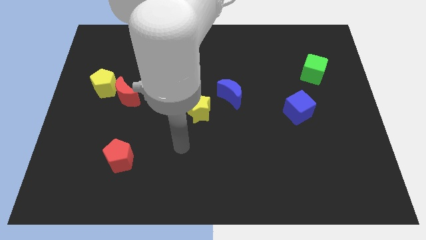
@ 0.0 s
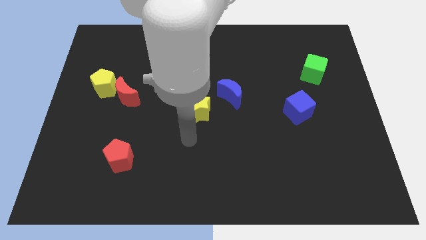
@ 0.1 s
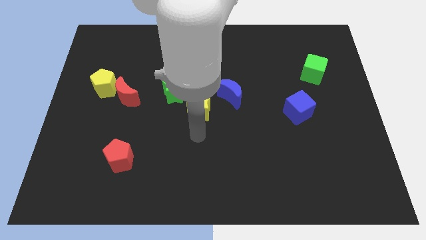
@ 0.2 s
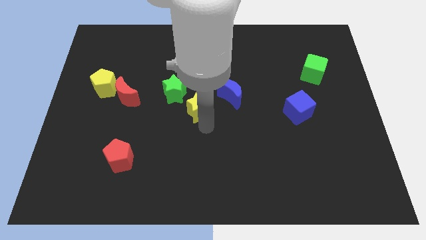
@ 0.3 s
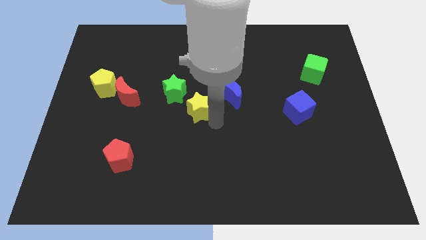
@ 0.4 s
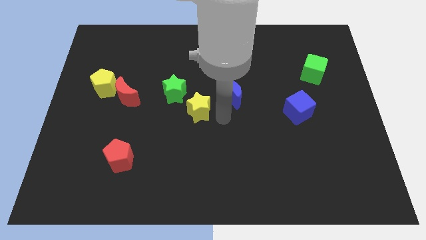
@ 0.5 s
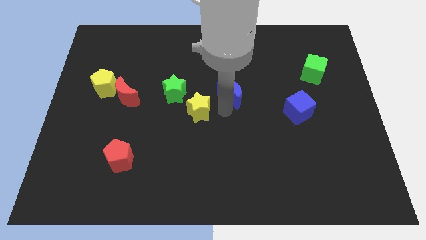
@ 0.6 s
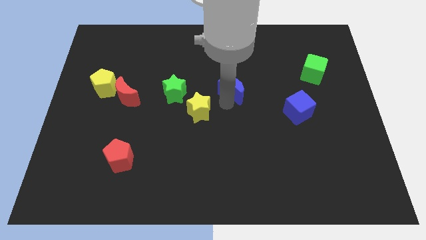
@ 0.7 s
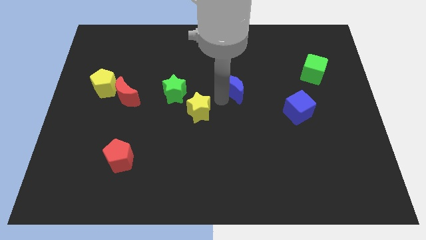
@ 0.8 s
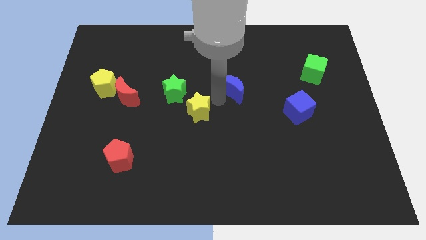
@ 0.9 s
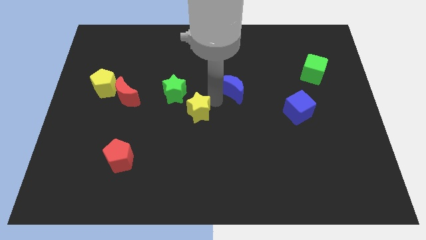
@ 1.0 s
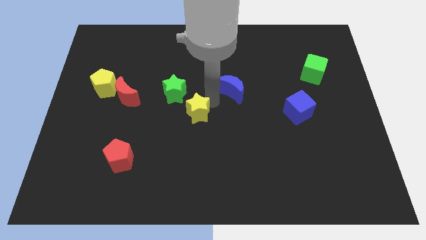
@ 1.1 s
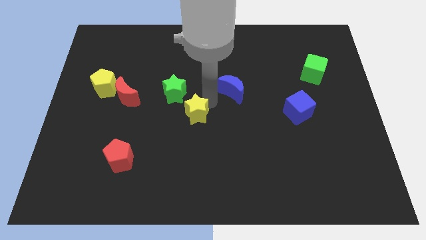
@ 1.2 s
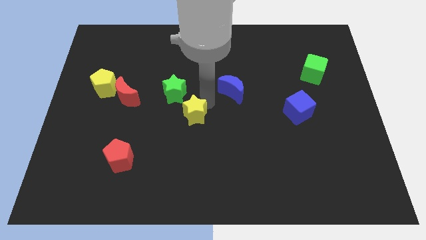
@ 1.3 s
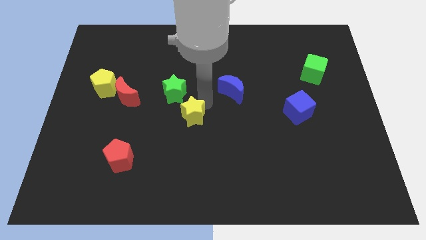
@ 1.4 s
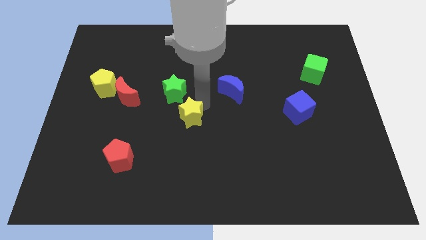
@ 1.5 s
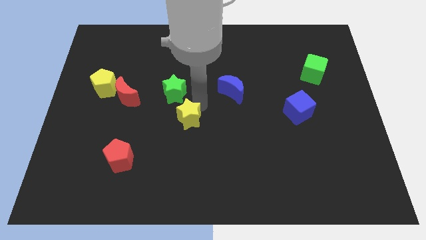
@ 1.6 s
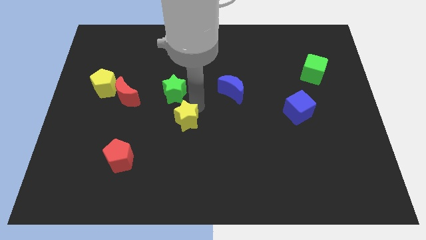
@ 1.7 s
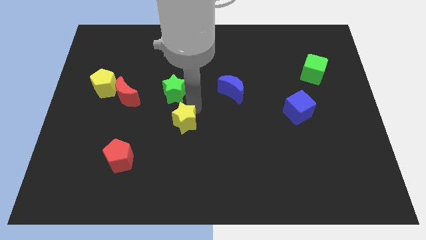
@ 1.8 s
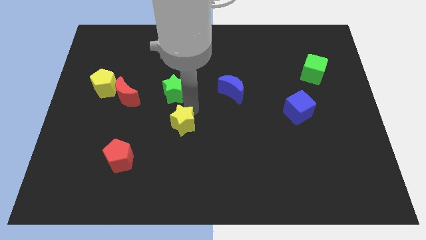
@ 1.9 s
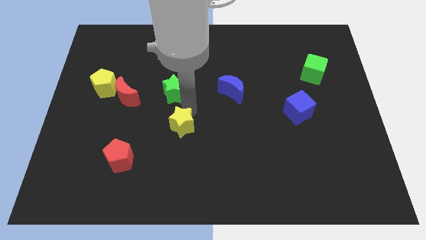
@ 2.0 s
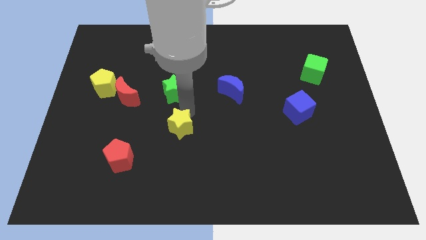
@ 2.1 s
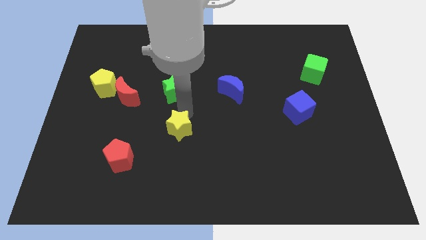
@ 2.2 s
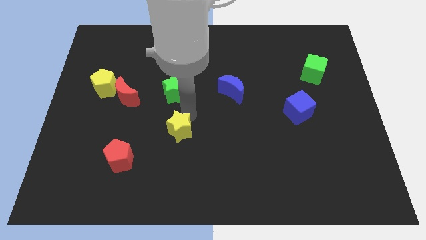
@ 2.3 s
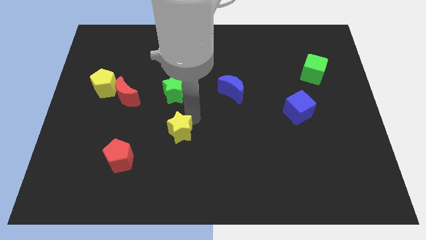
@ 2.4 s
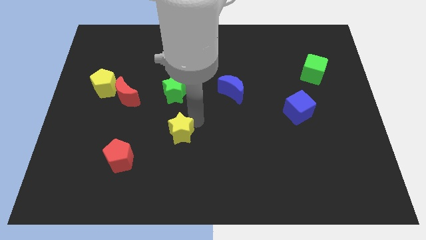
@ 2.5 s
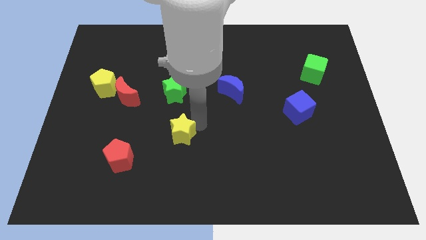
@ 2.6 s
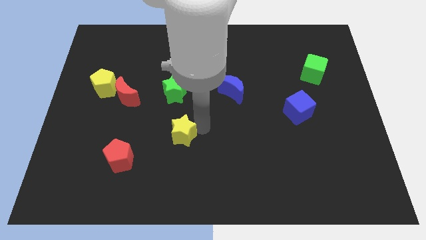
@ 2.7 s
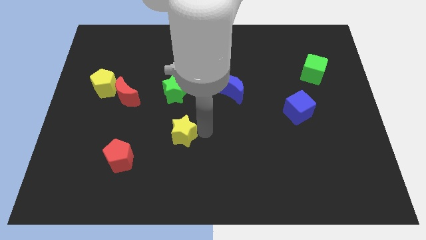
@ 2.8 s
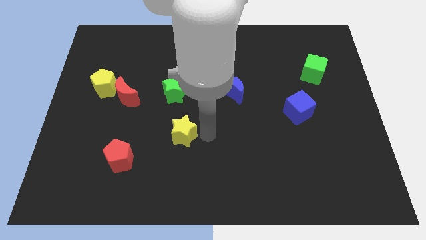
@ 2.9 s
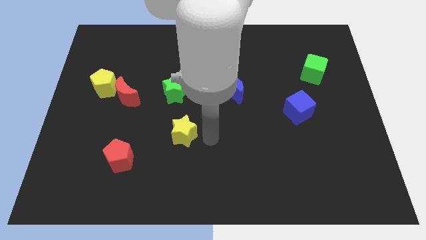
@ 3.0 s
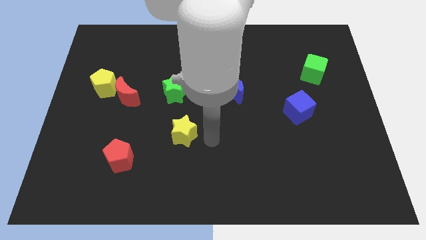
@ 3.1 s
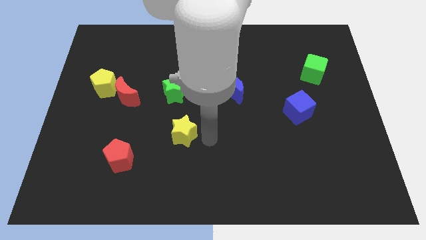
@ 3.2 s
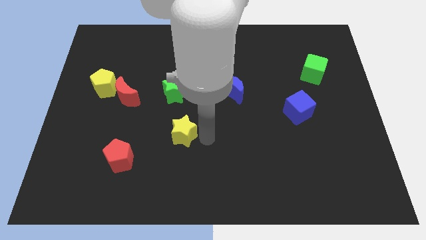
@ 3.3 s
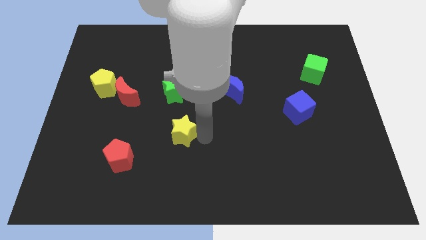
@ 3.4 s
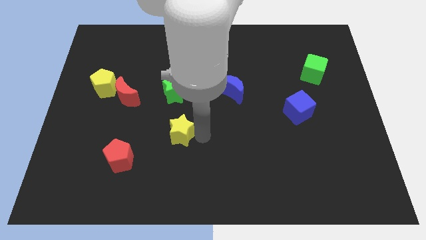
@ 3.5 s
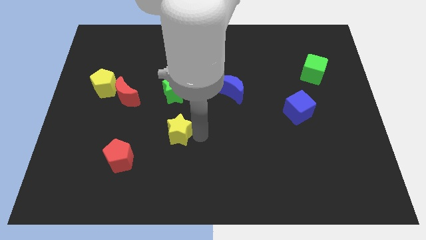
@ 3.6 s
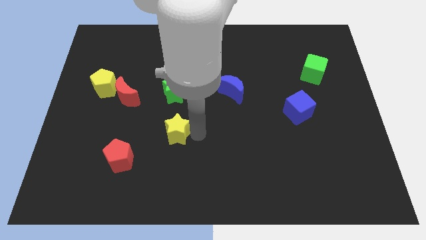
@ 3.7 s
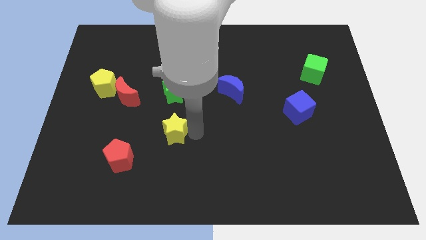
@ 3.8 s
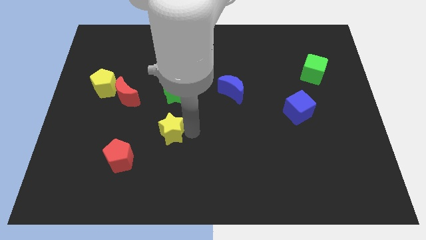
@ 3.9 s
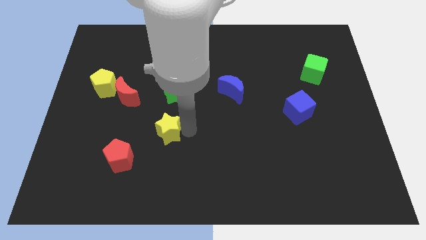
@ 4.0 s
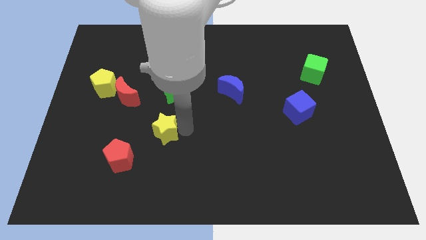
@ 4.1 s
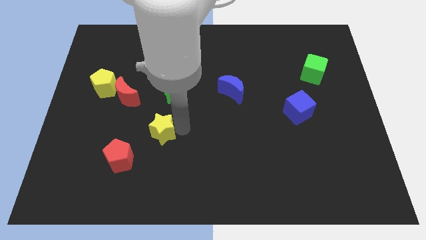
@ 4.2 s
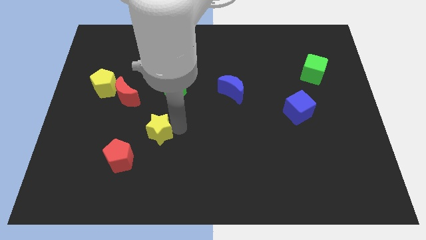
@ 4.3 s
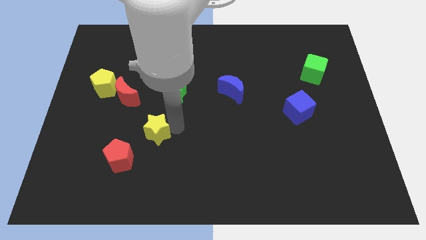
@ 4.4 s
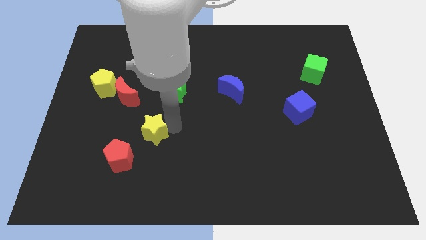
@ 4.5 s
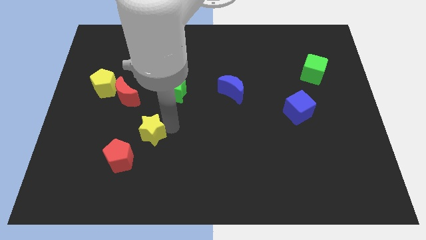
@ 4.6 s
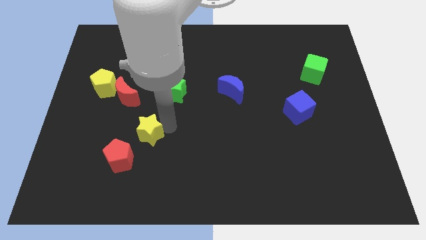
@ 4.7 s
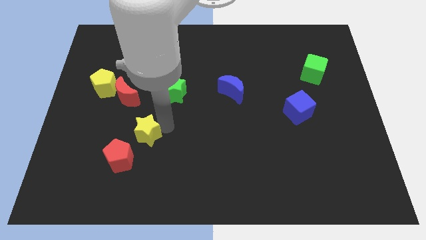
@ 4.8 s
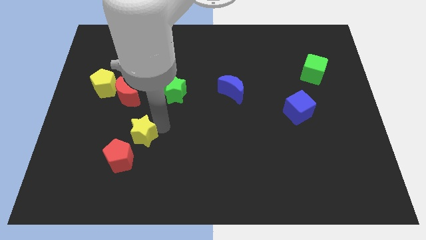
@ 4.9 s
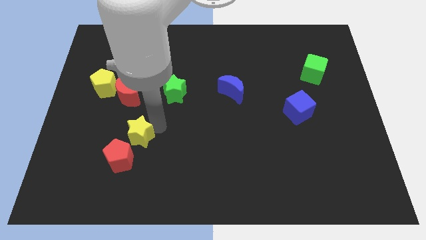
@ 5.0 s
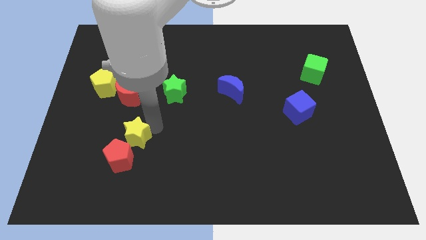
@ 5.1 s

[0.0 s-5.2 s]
push the yellow star towards the red pentagon

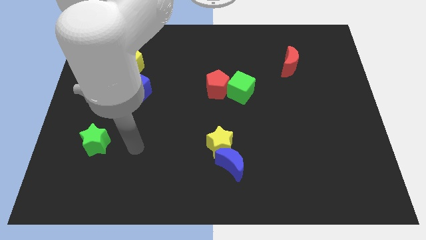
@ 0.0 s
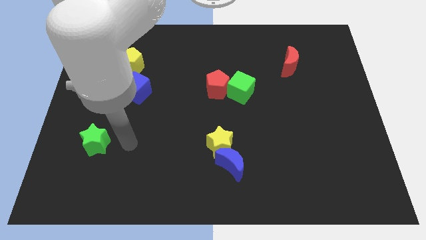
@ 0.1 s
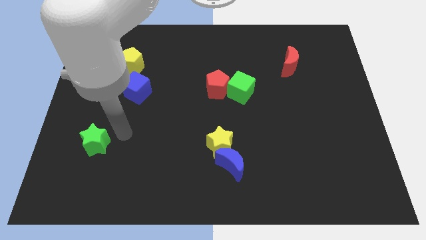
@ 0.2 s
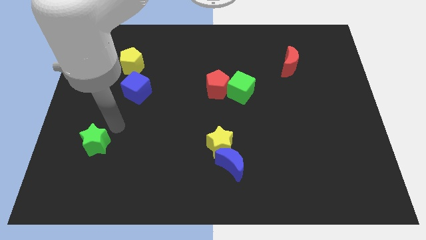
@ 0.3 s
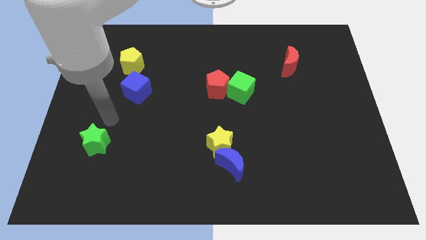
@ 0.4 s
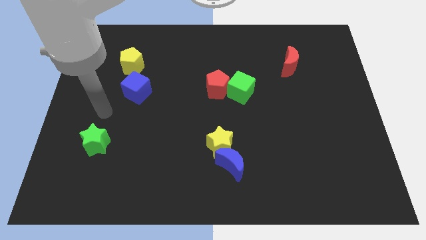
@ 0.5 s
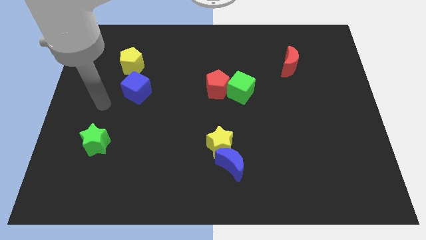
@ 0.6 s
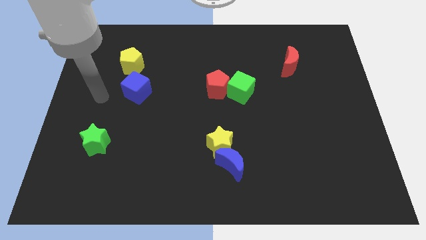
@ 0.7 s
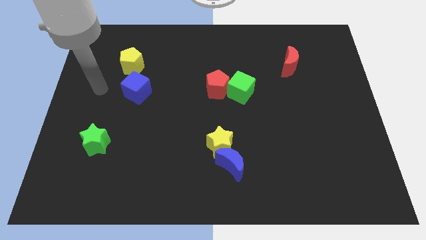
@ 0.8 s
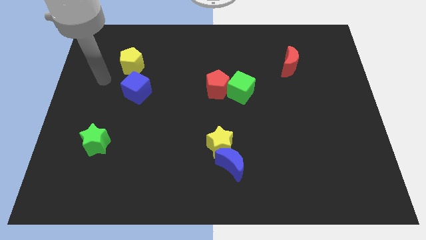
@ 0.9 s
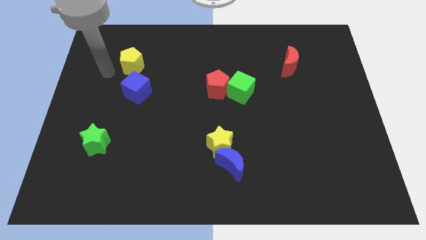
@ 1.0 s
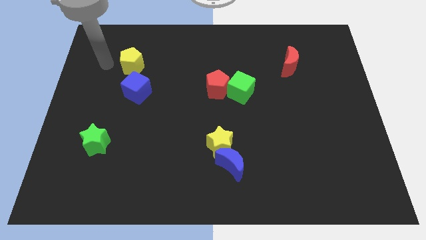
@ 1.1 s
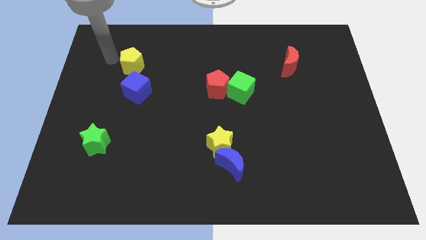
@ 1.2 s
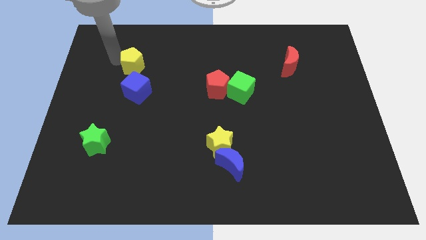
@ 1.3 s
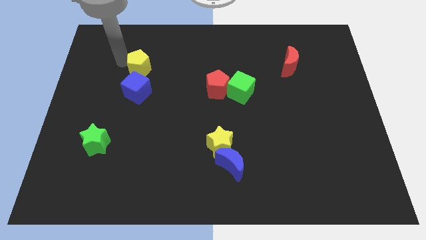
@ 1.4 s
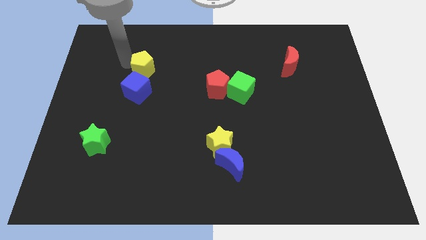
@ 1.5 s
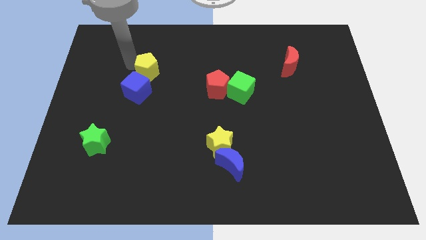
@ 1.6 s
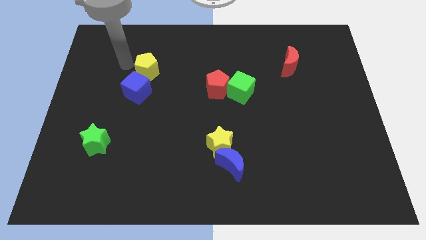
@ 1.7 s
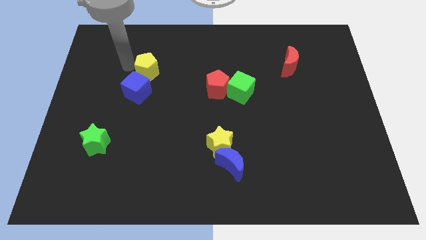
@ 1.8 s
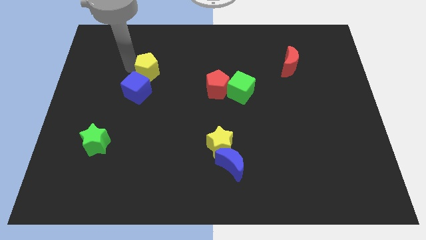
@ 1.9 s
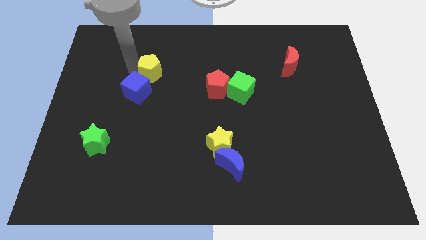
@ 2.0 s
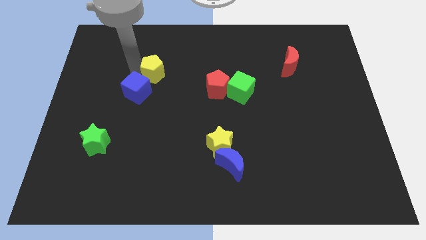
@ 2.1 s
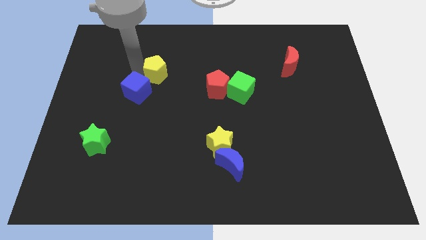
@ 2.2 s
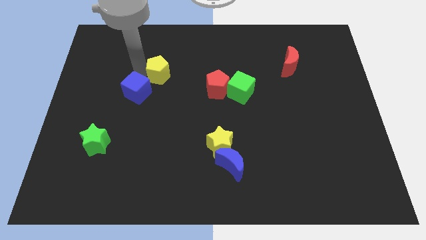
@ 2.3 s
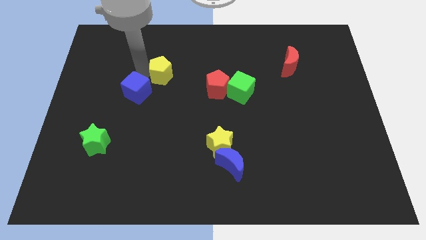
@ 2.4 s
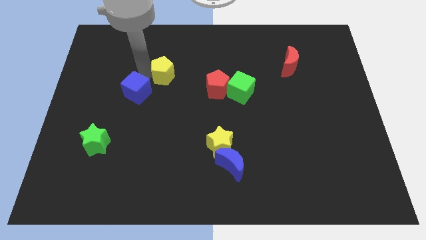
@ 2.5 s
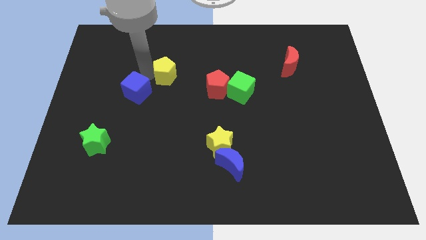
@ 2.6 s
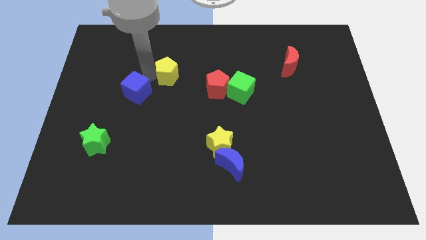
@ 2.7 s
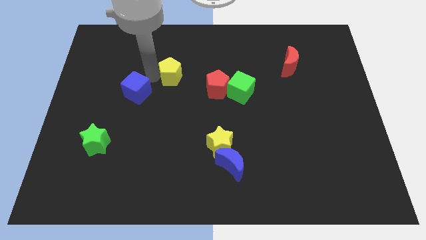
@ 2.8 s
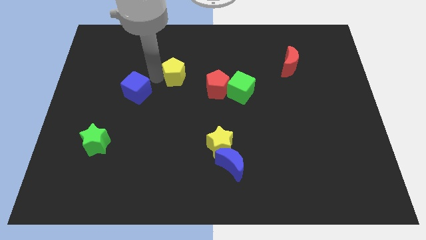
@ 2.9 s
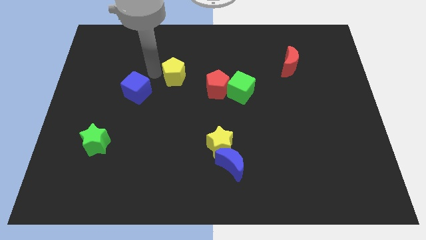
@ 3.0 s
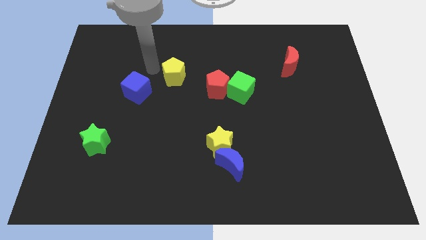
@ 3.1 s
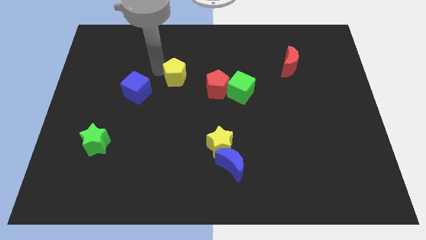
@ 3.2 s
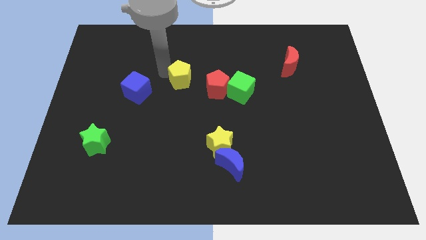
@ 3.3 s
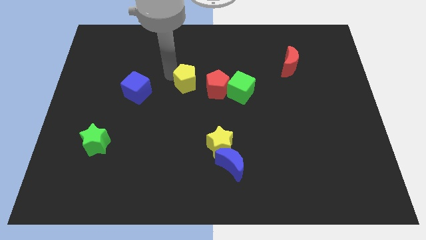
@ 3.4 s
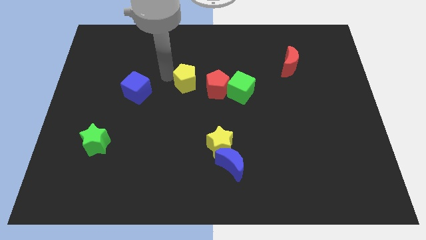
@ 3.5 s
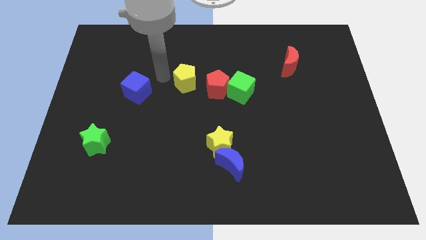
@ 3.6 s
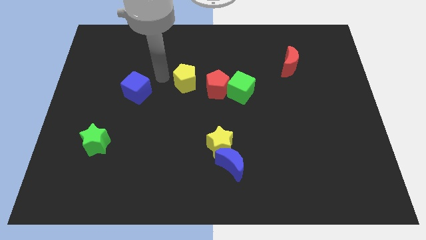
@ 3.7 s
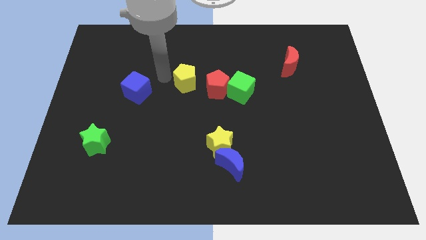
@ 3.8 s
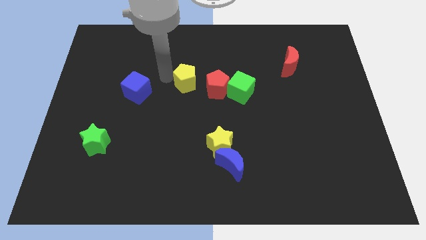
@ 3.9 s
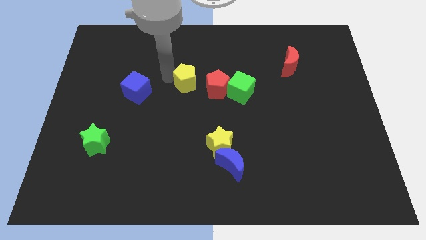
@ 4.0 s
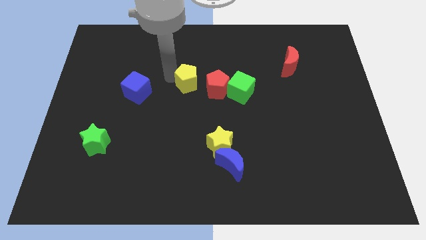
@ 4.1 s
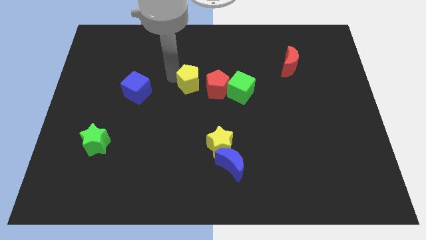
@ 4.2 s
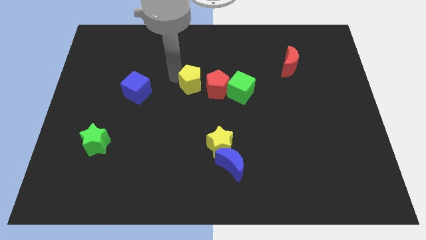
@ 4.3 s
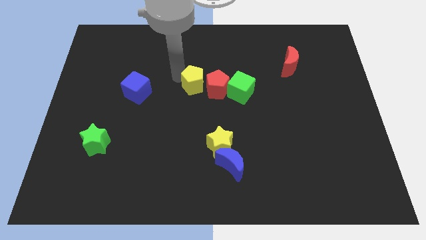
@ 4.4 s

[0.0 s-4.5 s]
push the yellow pentagon close to the red pentagon
